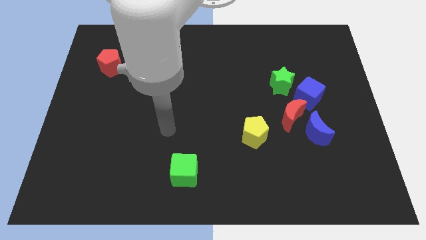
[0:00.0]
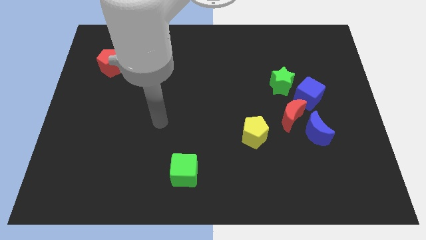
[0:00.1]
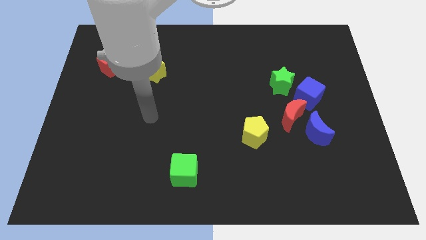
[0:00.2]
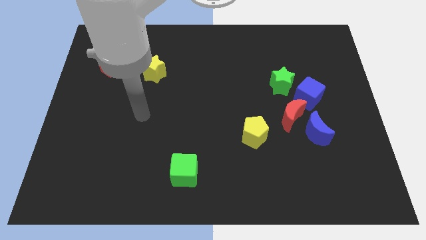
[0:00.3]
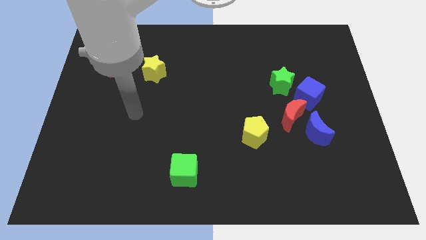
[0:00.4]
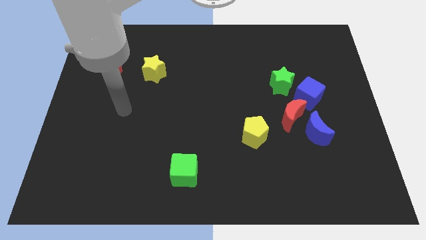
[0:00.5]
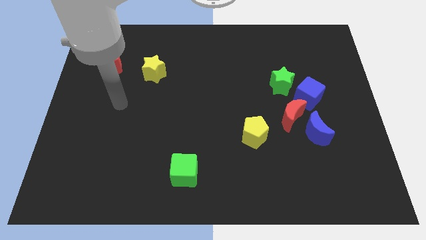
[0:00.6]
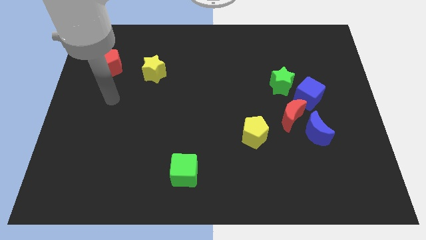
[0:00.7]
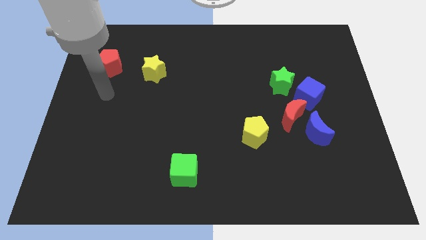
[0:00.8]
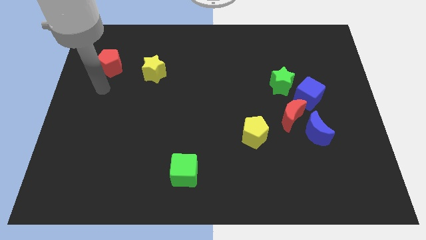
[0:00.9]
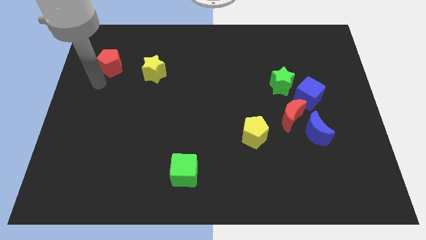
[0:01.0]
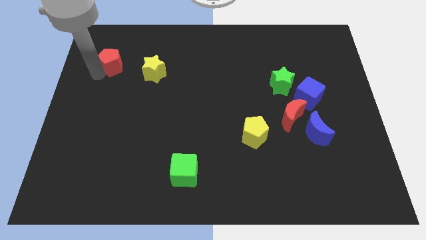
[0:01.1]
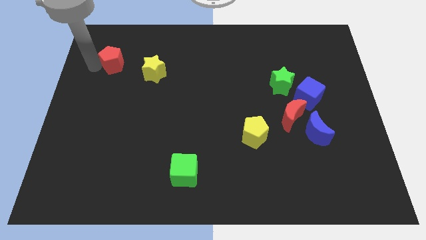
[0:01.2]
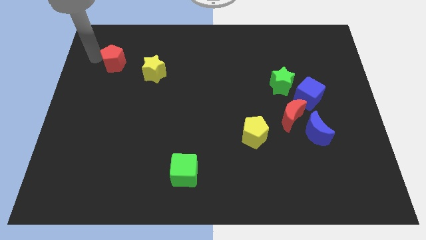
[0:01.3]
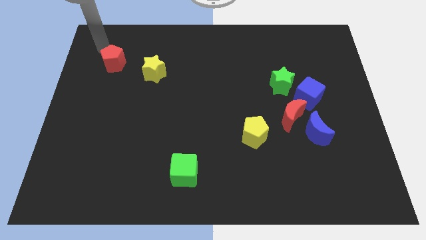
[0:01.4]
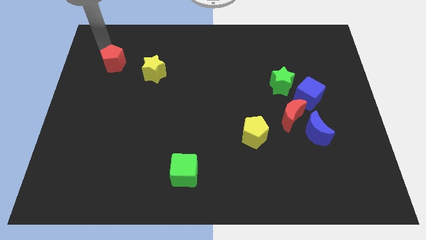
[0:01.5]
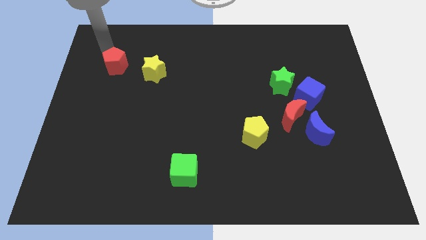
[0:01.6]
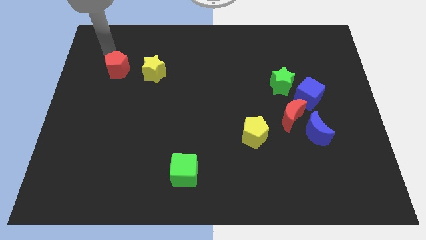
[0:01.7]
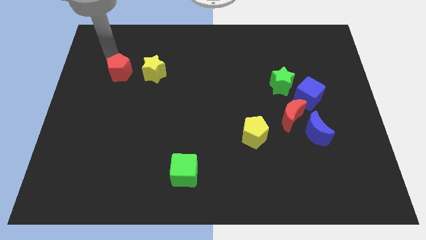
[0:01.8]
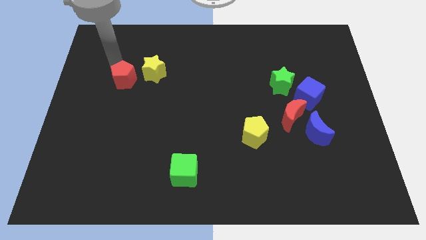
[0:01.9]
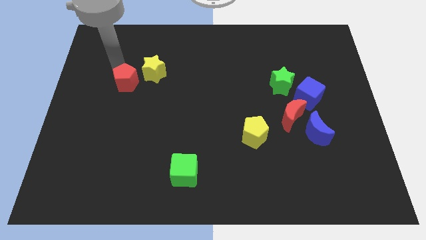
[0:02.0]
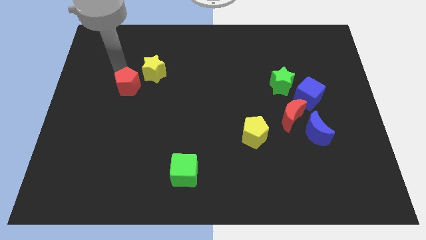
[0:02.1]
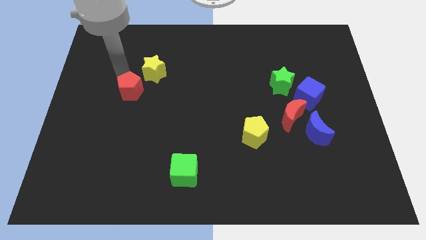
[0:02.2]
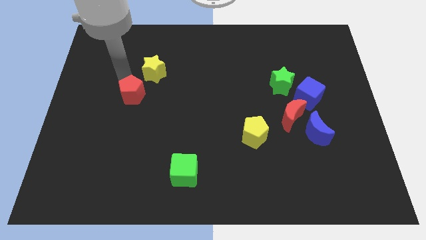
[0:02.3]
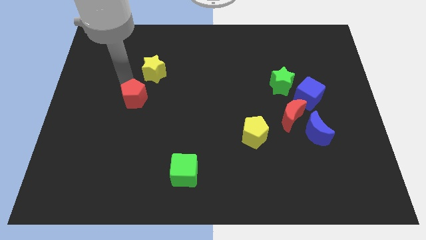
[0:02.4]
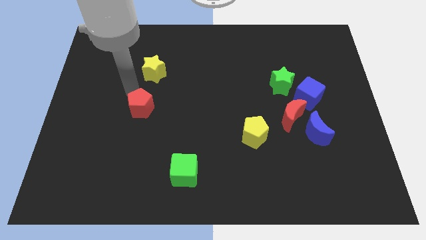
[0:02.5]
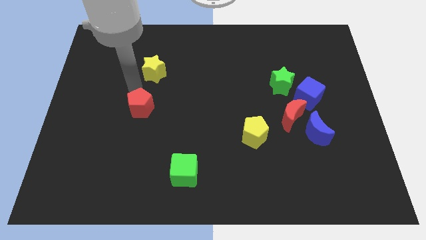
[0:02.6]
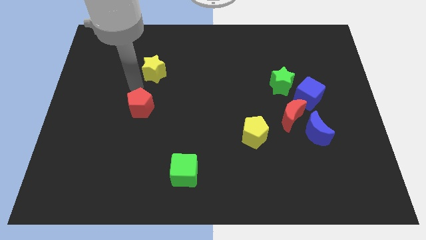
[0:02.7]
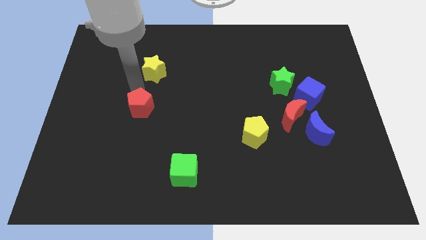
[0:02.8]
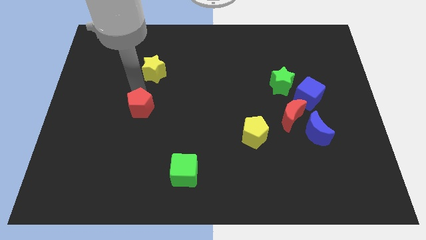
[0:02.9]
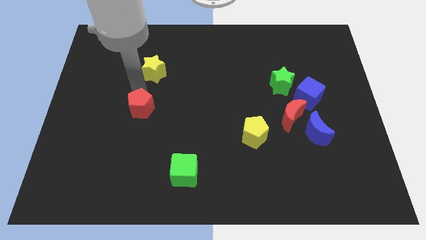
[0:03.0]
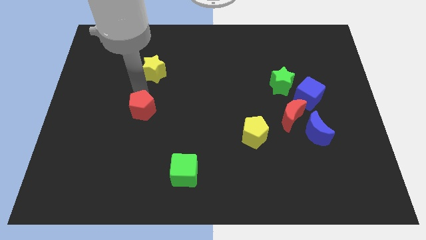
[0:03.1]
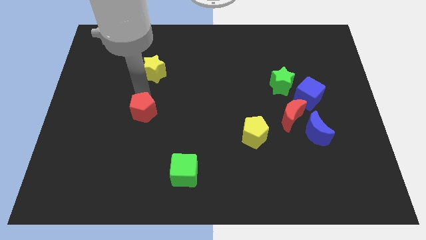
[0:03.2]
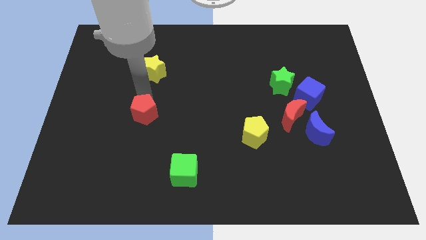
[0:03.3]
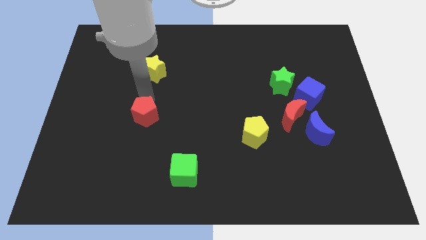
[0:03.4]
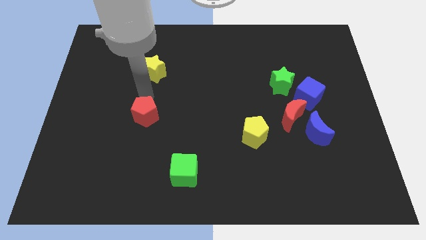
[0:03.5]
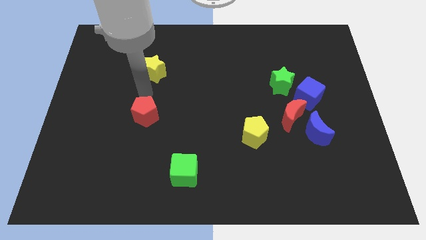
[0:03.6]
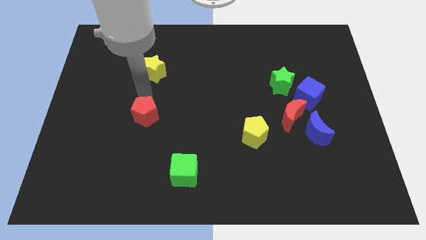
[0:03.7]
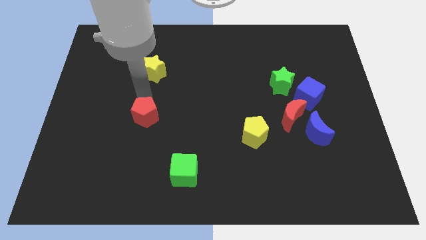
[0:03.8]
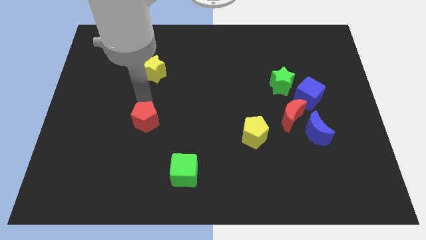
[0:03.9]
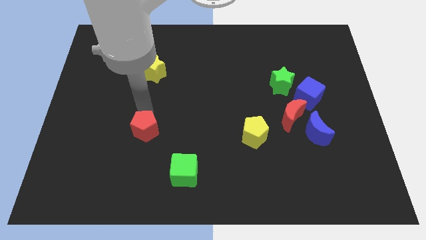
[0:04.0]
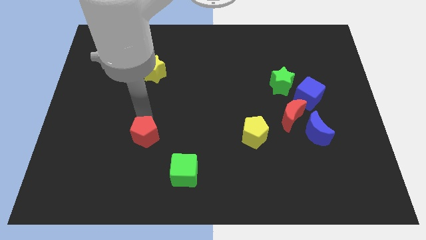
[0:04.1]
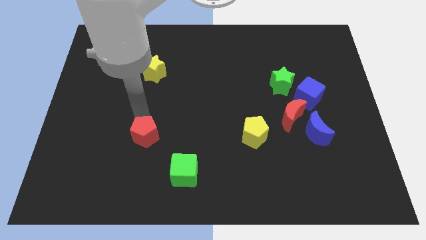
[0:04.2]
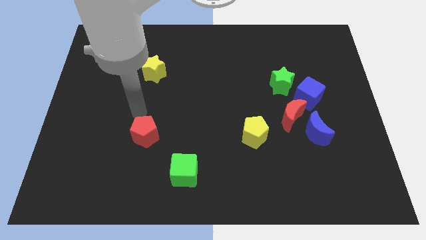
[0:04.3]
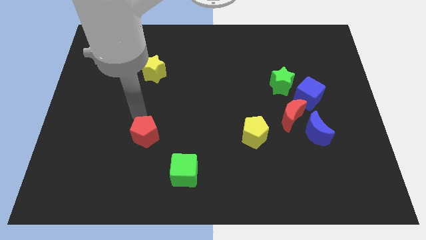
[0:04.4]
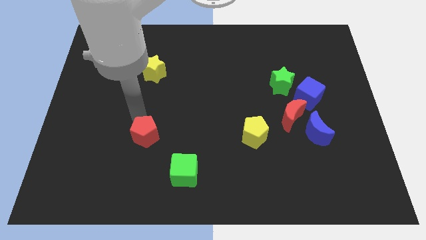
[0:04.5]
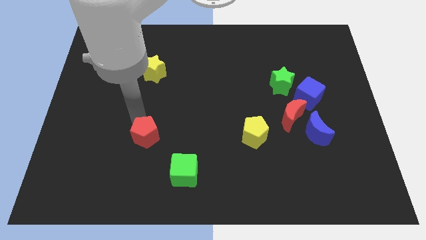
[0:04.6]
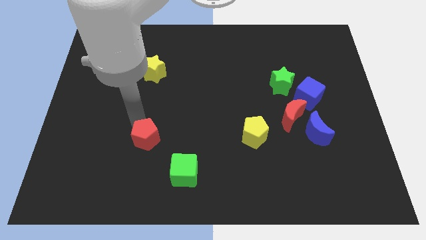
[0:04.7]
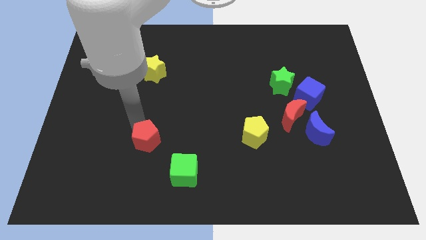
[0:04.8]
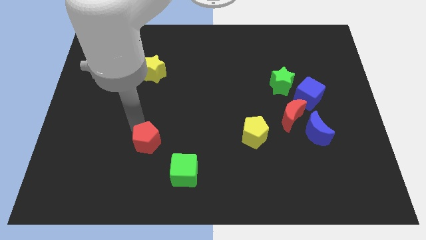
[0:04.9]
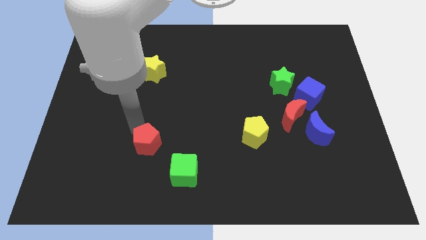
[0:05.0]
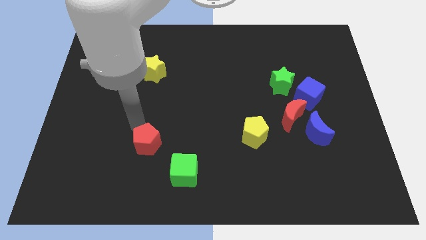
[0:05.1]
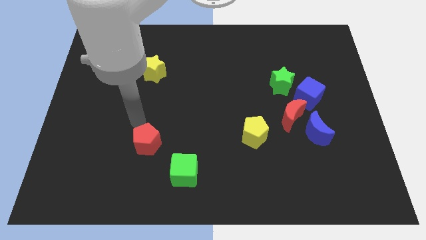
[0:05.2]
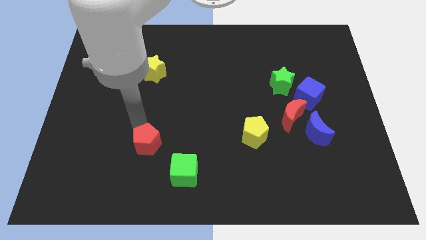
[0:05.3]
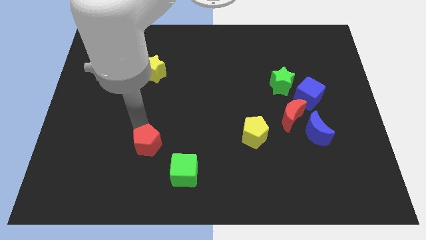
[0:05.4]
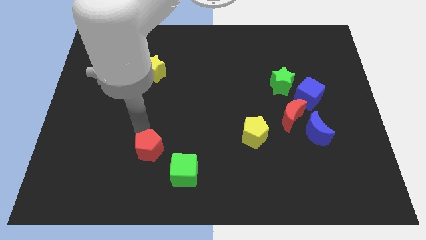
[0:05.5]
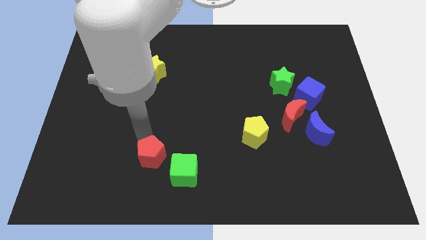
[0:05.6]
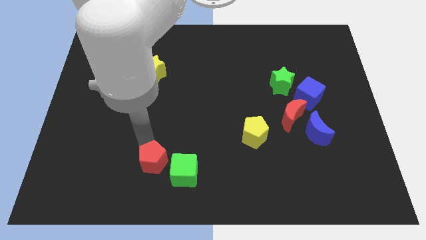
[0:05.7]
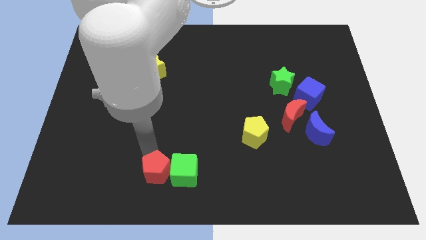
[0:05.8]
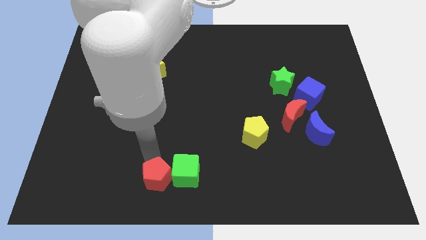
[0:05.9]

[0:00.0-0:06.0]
slide the red pentagon to the bottom side
